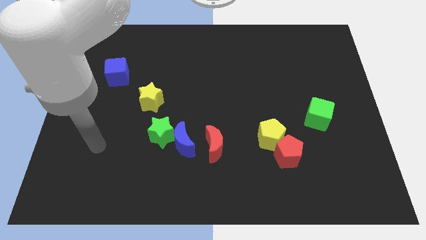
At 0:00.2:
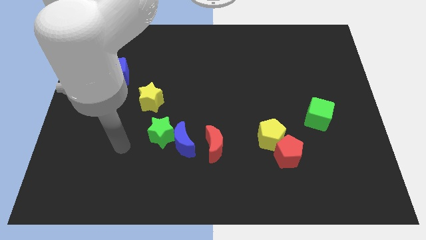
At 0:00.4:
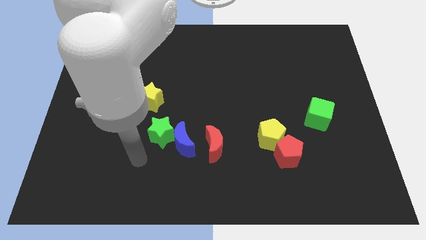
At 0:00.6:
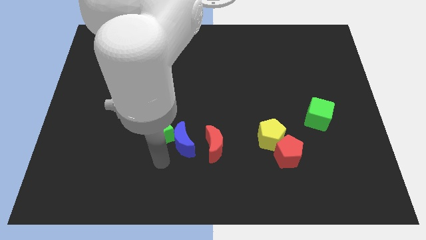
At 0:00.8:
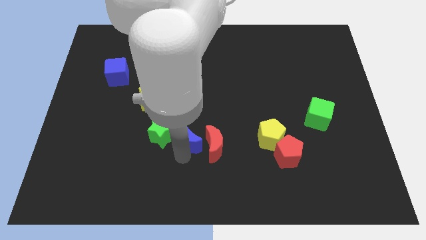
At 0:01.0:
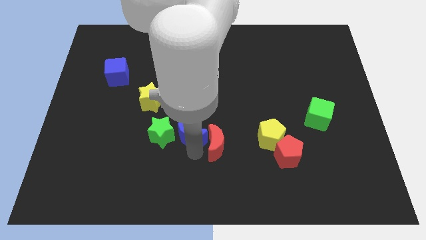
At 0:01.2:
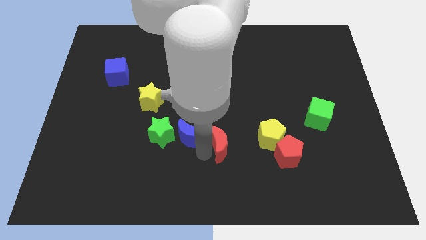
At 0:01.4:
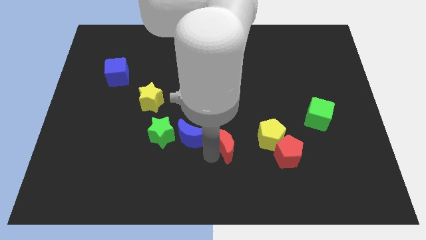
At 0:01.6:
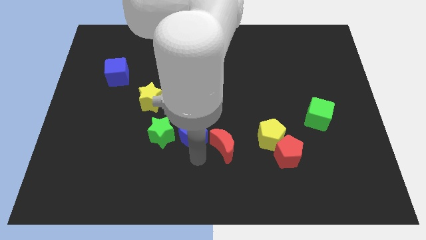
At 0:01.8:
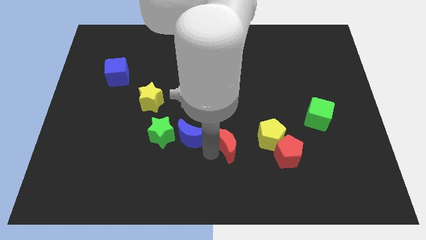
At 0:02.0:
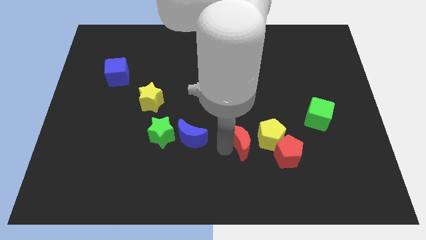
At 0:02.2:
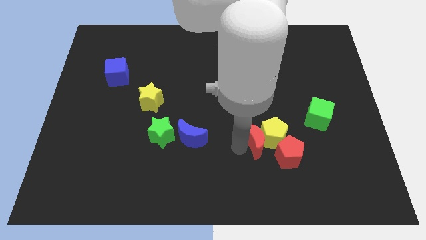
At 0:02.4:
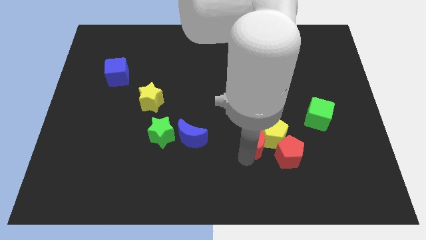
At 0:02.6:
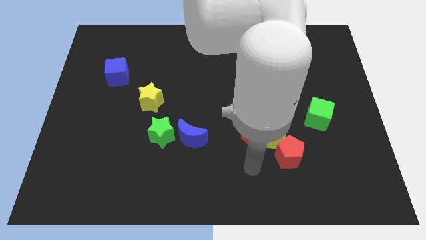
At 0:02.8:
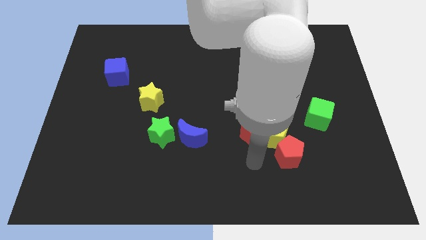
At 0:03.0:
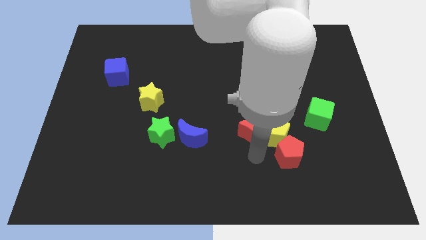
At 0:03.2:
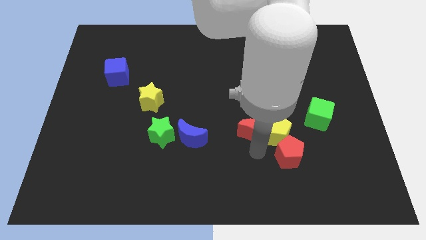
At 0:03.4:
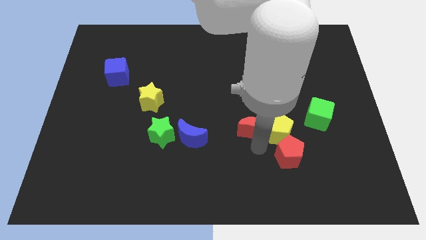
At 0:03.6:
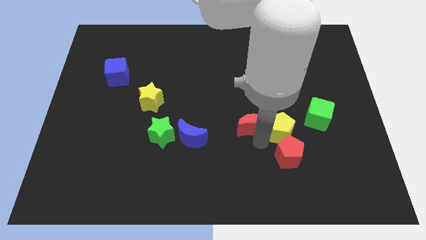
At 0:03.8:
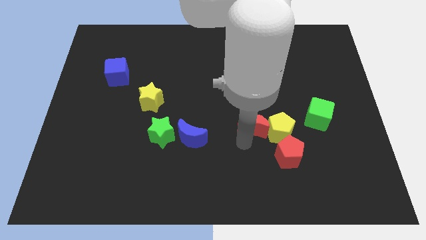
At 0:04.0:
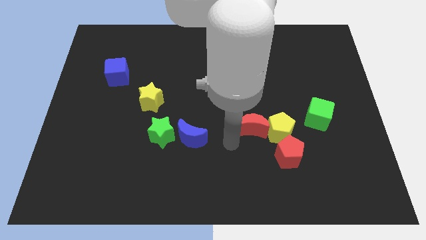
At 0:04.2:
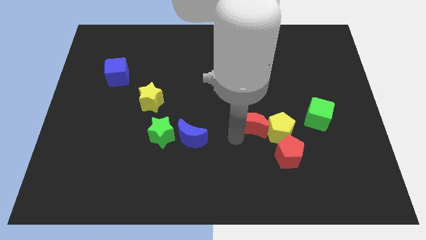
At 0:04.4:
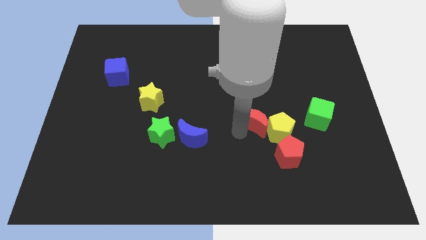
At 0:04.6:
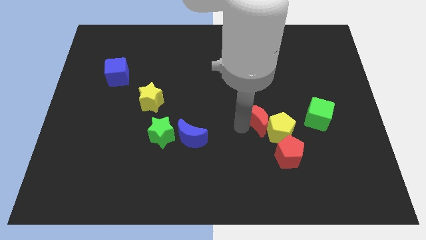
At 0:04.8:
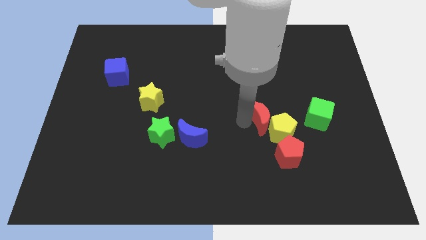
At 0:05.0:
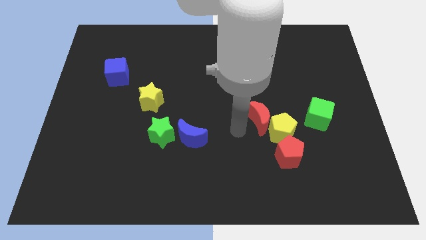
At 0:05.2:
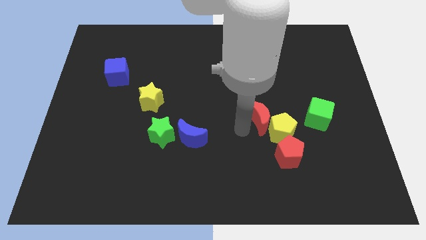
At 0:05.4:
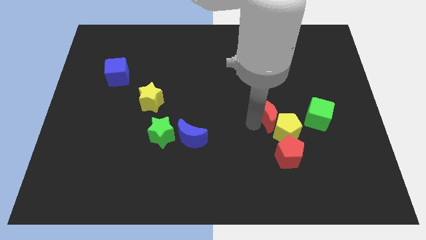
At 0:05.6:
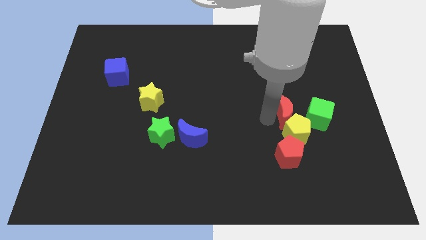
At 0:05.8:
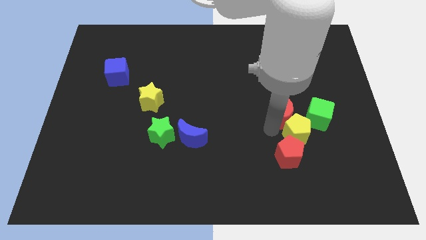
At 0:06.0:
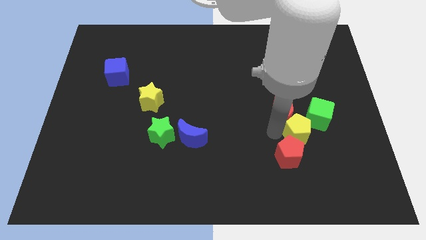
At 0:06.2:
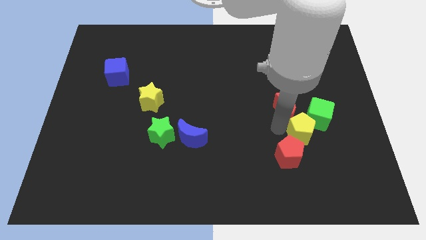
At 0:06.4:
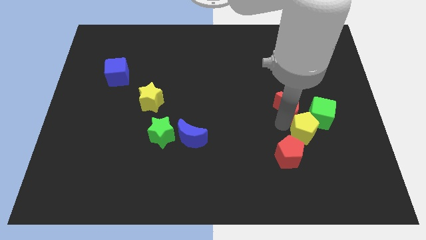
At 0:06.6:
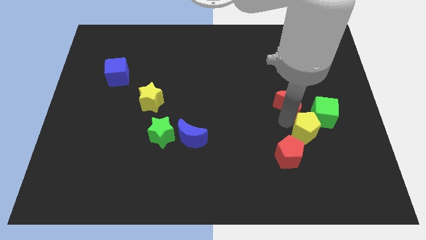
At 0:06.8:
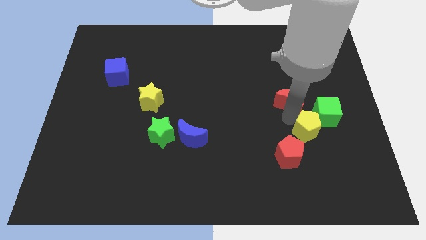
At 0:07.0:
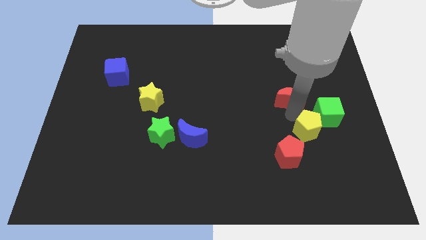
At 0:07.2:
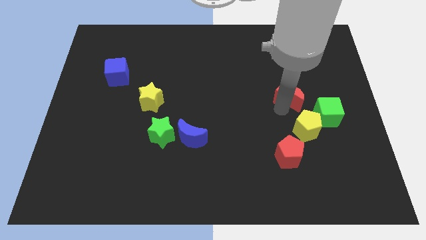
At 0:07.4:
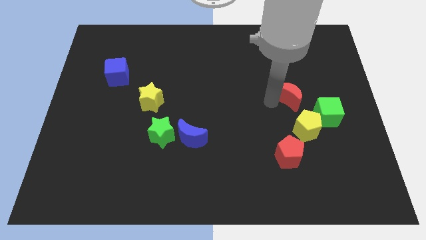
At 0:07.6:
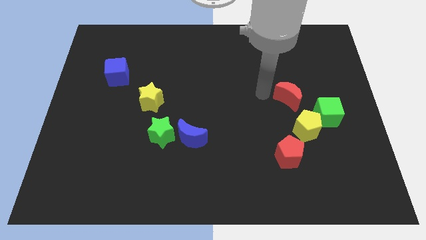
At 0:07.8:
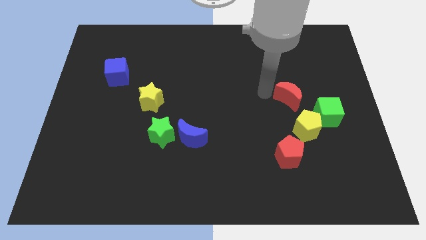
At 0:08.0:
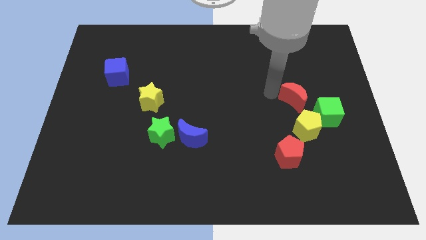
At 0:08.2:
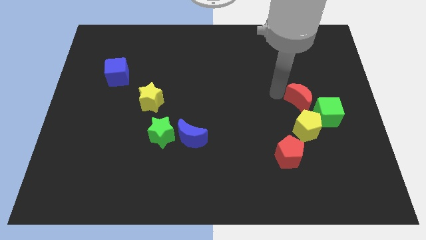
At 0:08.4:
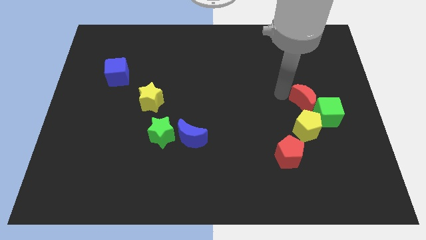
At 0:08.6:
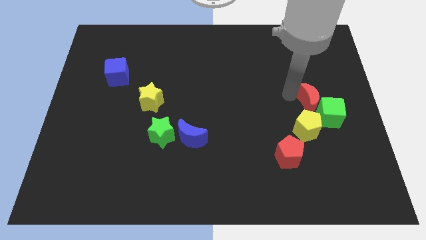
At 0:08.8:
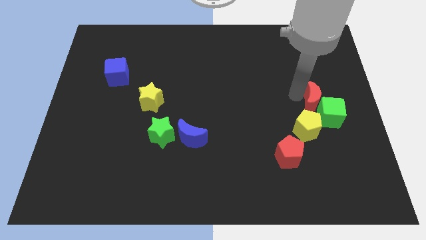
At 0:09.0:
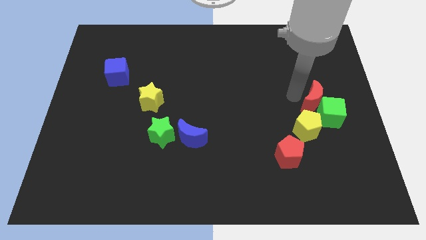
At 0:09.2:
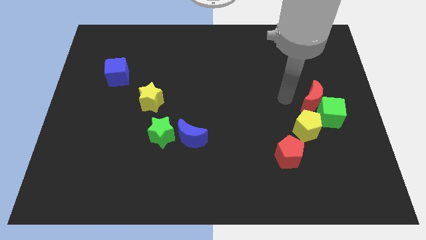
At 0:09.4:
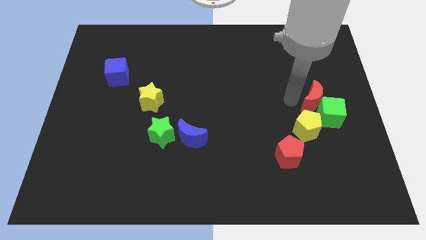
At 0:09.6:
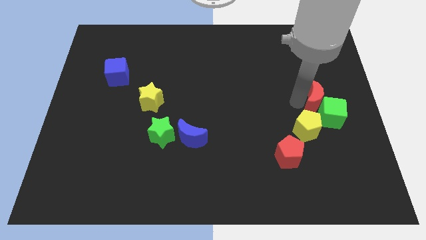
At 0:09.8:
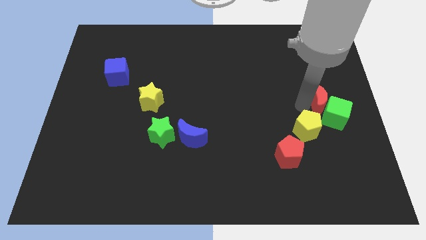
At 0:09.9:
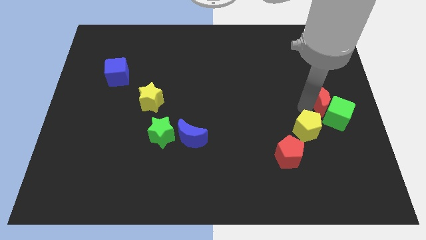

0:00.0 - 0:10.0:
move the red moon to the right side of the board

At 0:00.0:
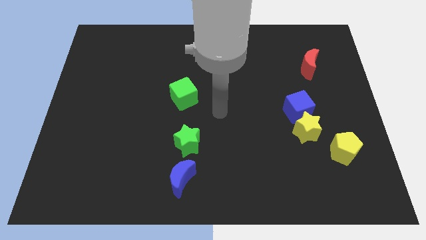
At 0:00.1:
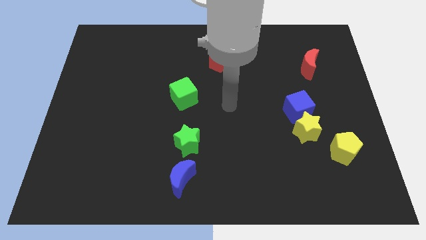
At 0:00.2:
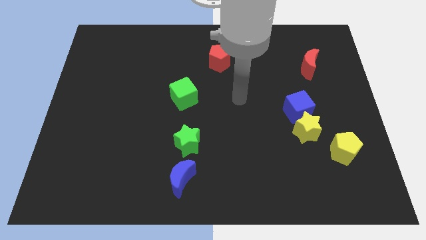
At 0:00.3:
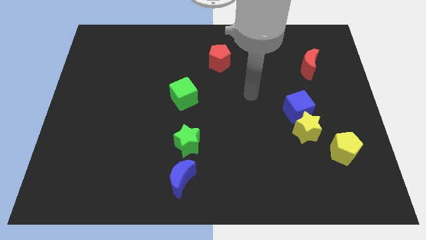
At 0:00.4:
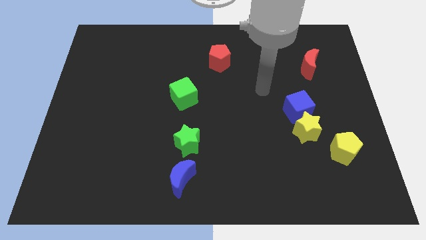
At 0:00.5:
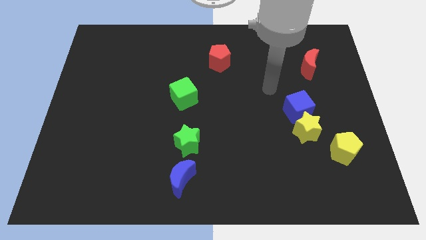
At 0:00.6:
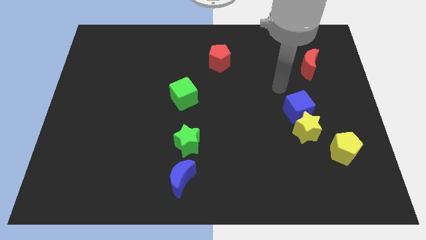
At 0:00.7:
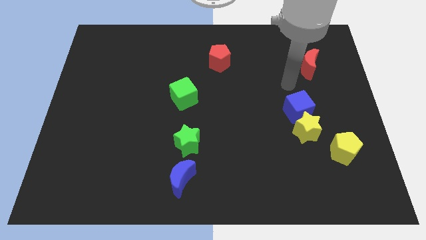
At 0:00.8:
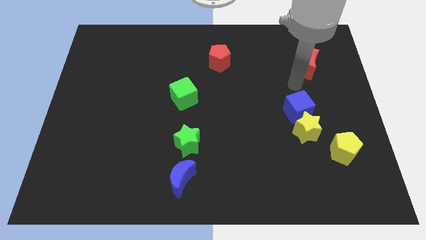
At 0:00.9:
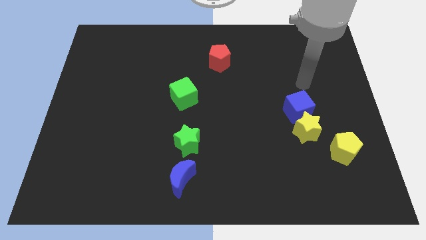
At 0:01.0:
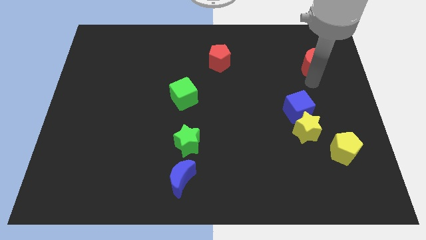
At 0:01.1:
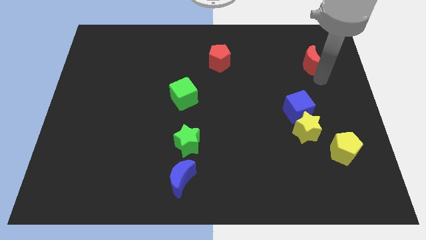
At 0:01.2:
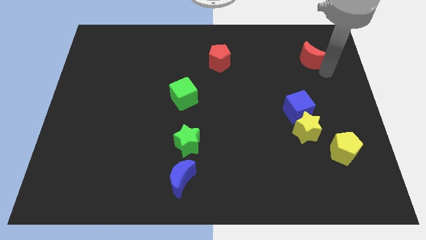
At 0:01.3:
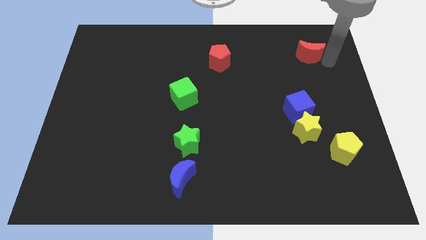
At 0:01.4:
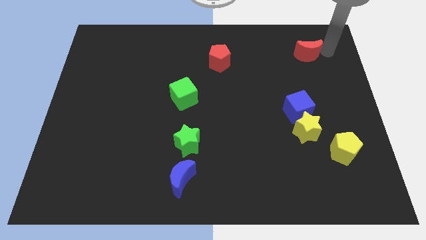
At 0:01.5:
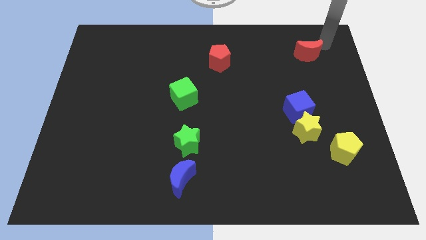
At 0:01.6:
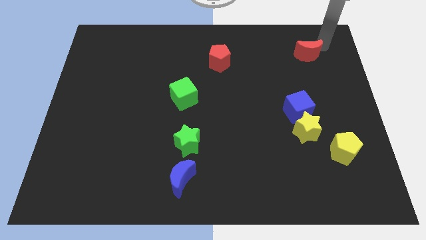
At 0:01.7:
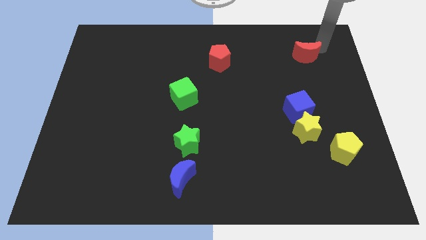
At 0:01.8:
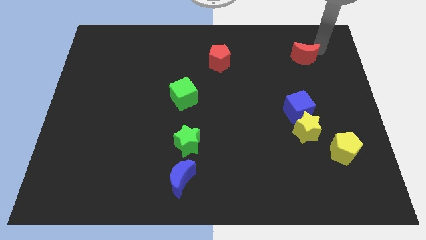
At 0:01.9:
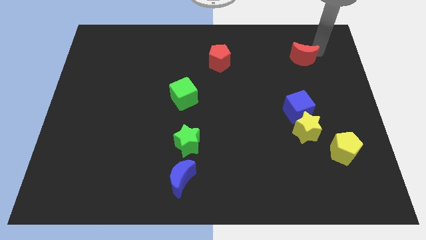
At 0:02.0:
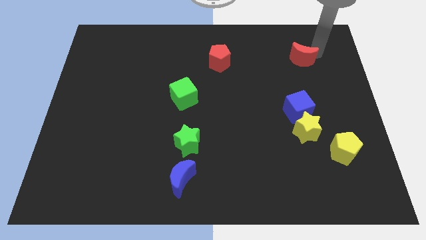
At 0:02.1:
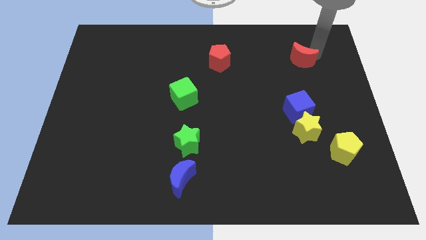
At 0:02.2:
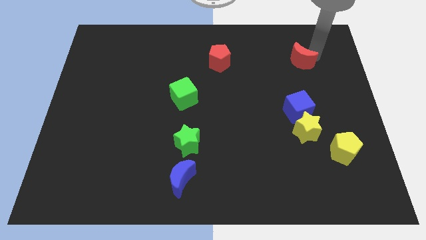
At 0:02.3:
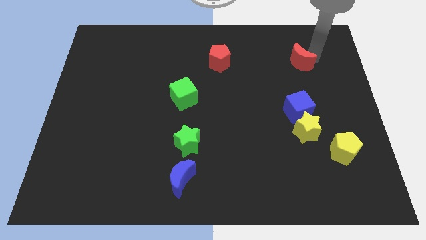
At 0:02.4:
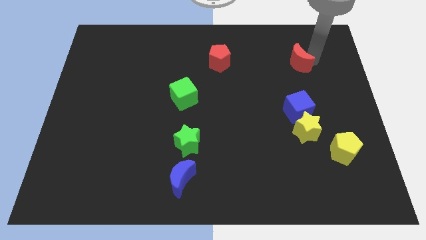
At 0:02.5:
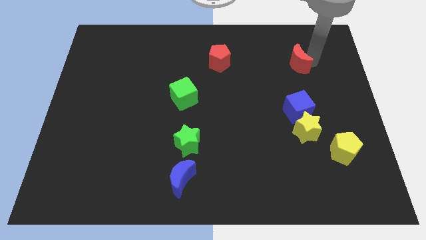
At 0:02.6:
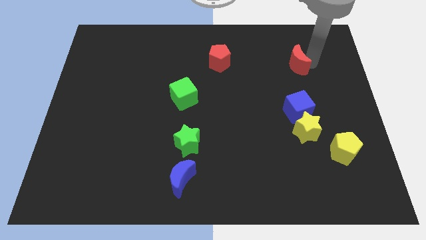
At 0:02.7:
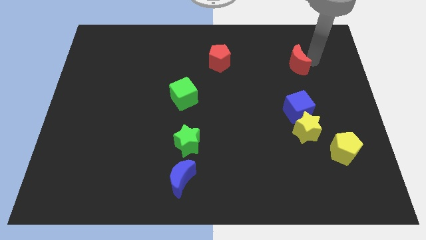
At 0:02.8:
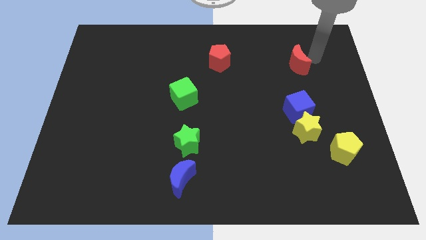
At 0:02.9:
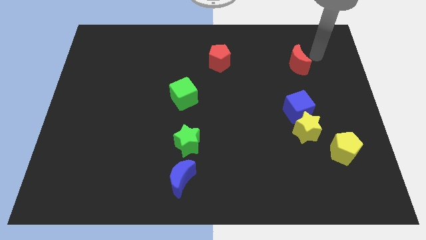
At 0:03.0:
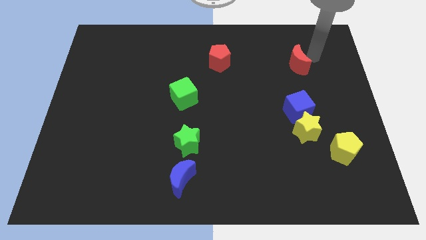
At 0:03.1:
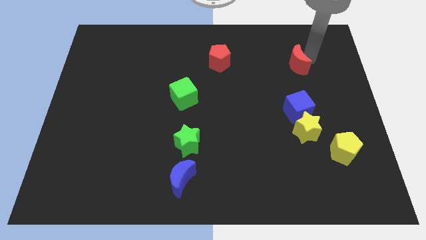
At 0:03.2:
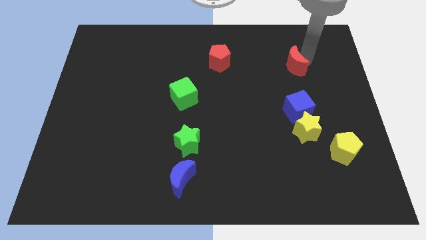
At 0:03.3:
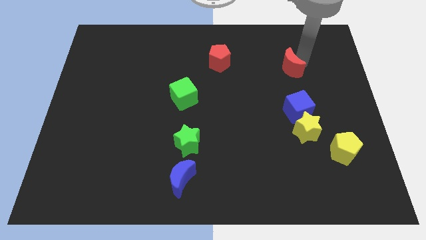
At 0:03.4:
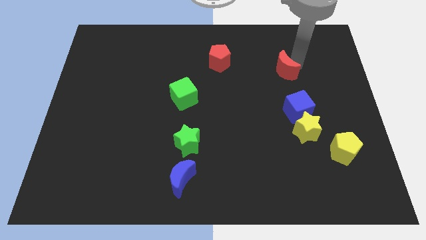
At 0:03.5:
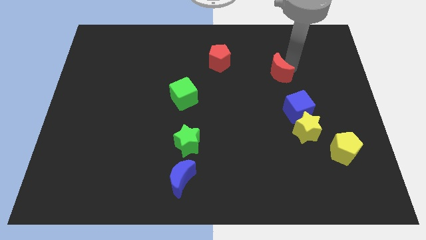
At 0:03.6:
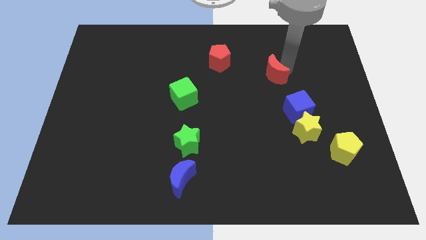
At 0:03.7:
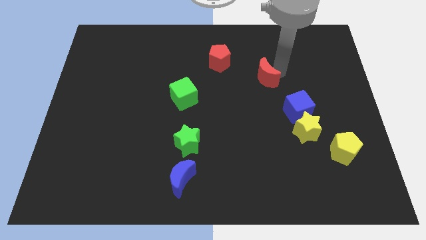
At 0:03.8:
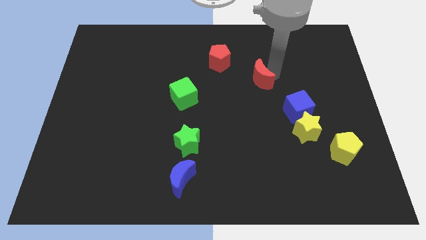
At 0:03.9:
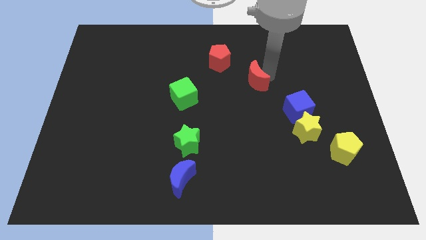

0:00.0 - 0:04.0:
push the red moon to the middle
